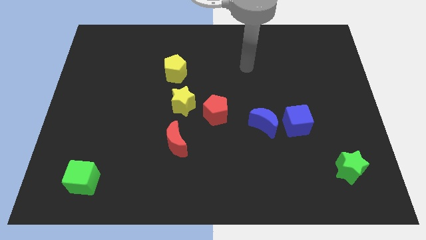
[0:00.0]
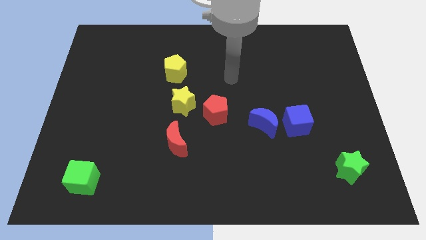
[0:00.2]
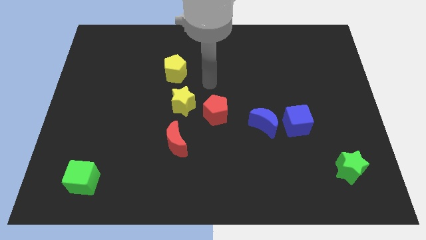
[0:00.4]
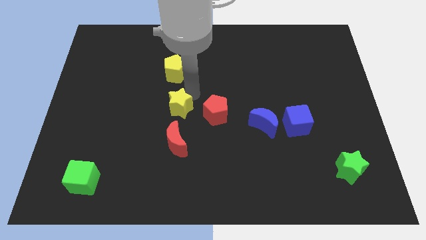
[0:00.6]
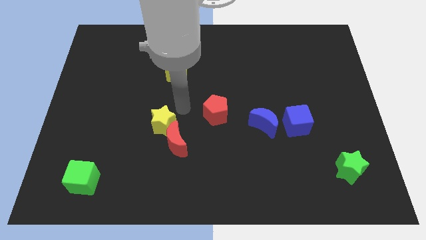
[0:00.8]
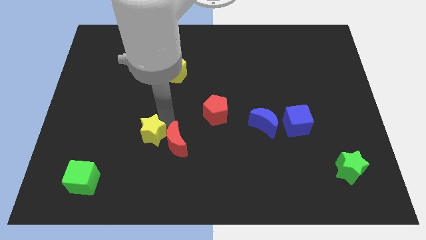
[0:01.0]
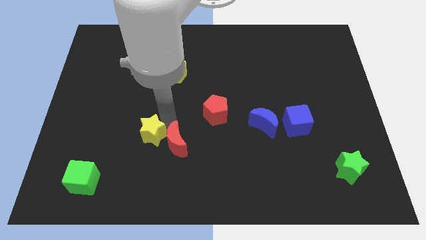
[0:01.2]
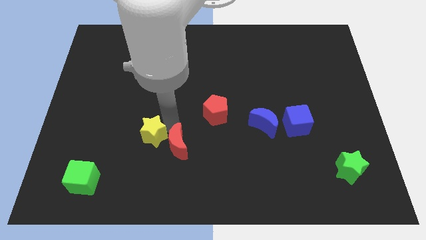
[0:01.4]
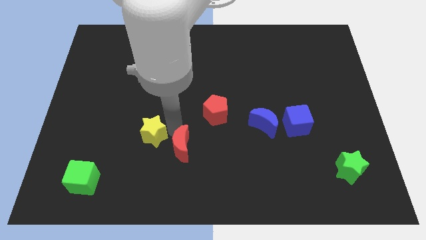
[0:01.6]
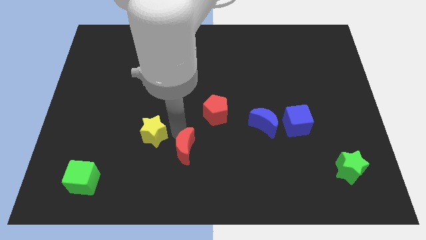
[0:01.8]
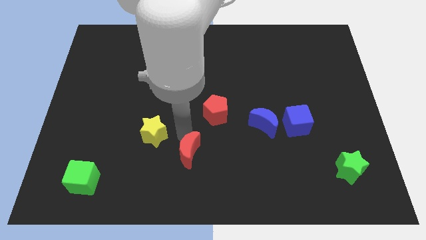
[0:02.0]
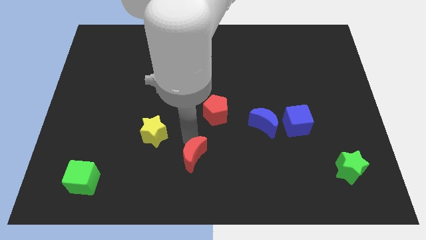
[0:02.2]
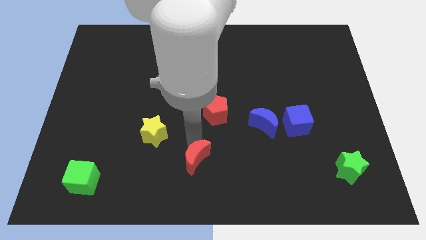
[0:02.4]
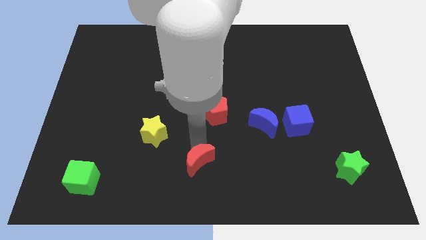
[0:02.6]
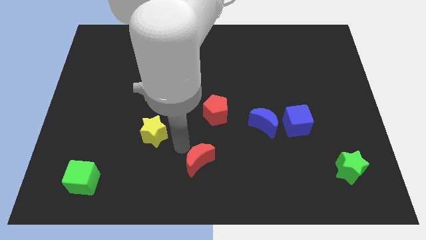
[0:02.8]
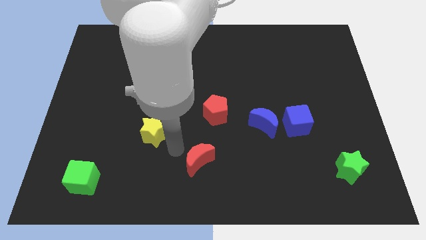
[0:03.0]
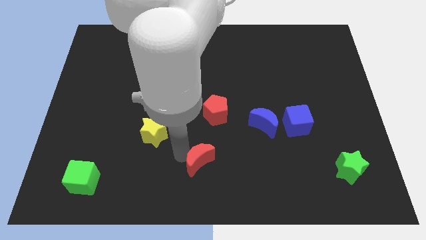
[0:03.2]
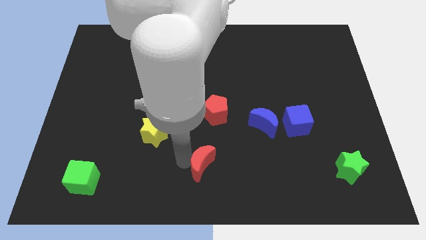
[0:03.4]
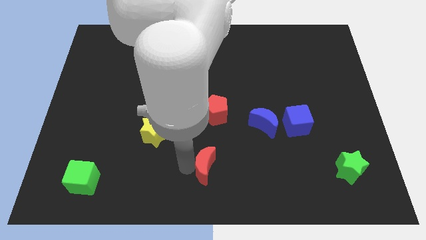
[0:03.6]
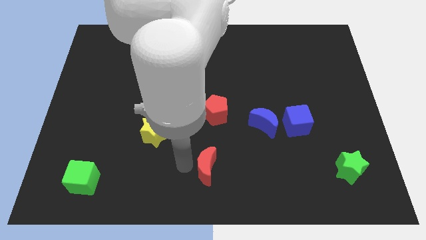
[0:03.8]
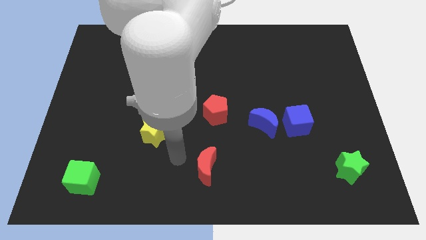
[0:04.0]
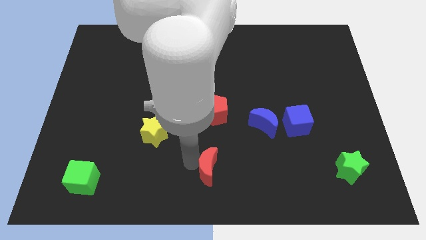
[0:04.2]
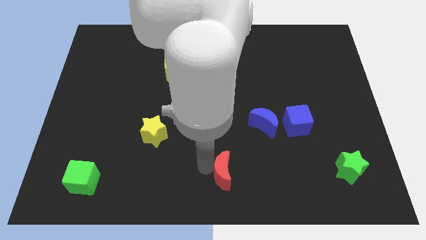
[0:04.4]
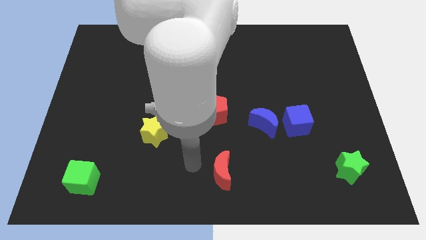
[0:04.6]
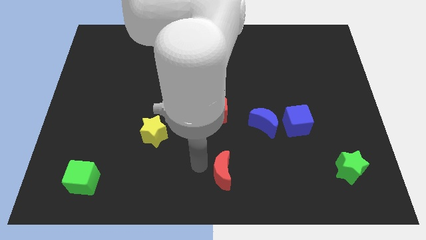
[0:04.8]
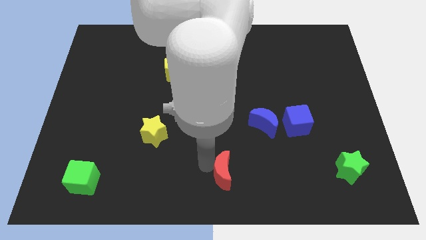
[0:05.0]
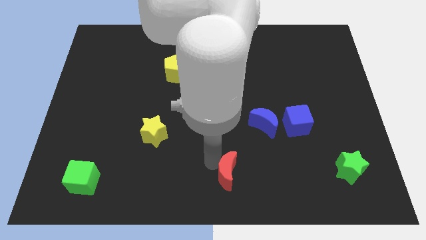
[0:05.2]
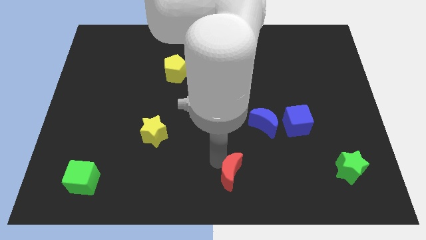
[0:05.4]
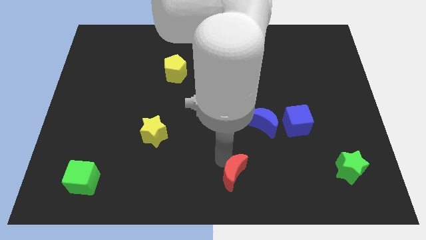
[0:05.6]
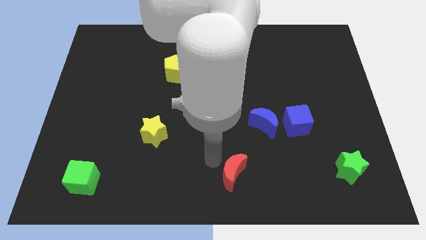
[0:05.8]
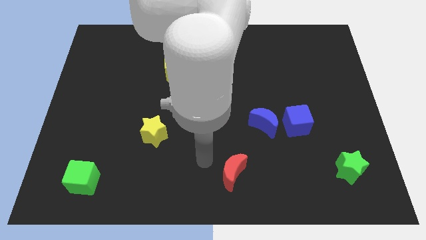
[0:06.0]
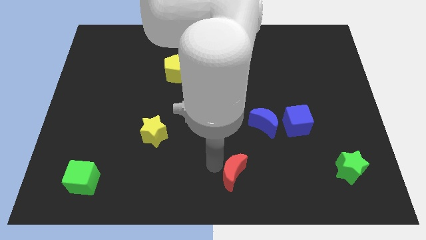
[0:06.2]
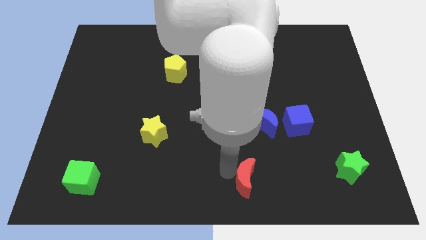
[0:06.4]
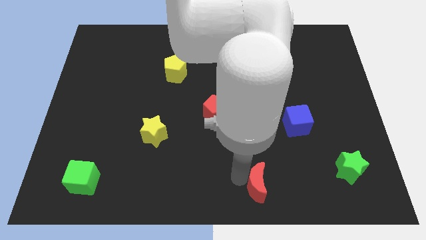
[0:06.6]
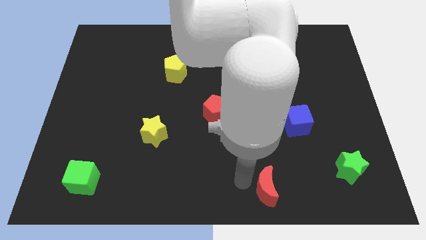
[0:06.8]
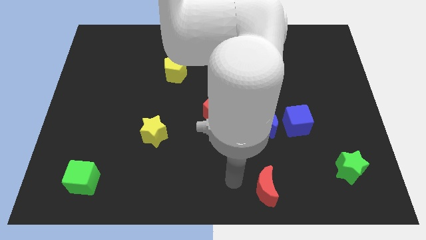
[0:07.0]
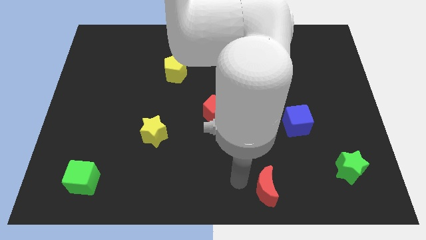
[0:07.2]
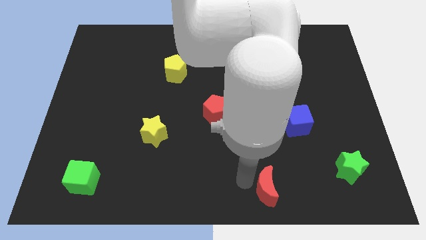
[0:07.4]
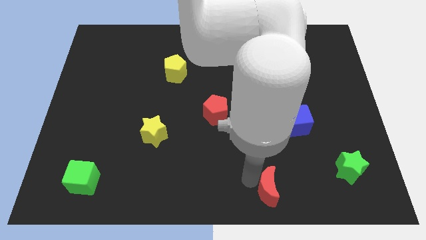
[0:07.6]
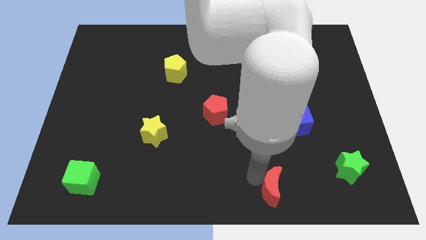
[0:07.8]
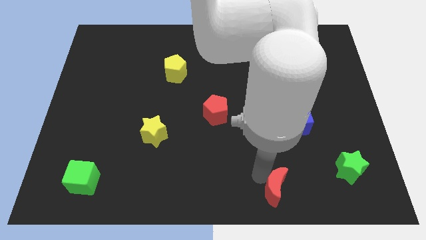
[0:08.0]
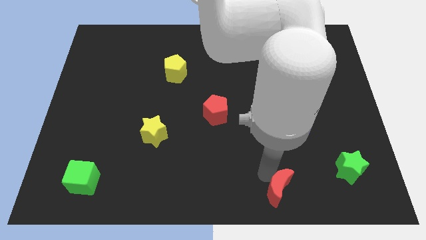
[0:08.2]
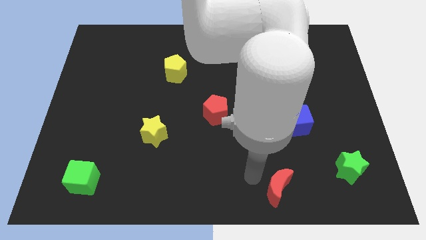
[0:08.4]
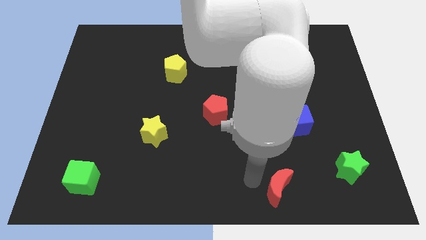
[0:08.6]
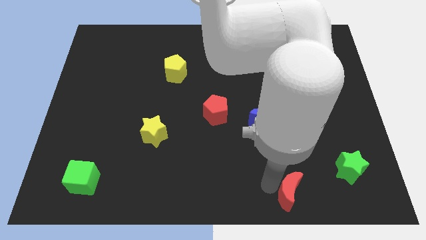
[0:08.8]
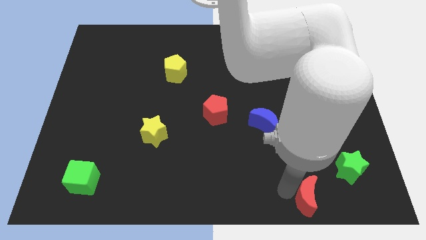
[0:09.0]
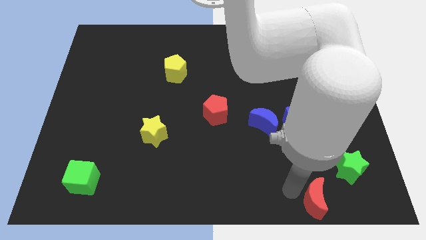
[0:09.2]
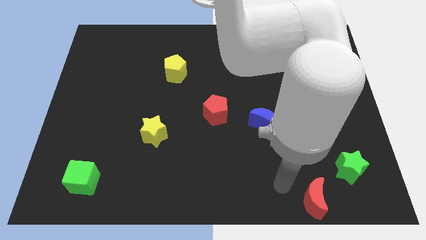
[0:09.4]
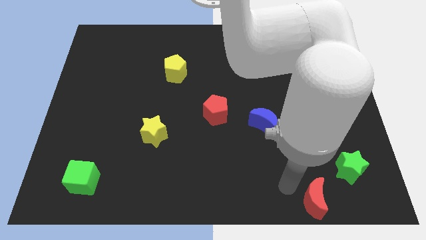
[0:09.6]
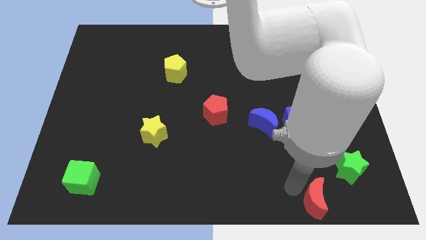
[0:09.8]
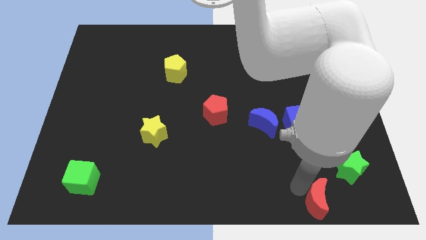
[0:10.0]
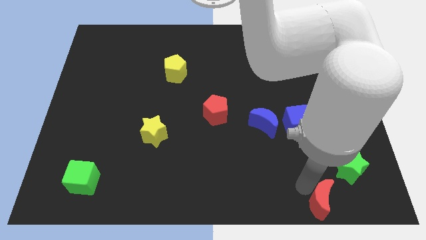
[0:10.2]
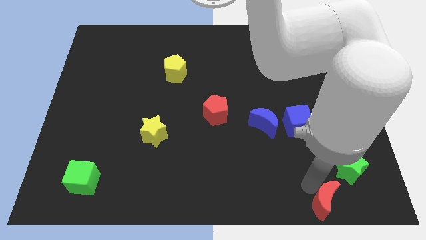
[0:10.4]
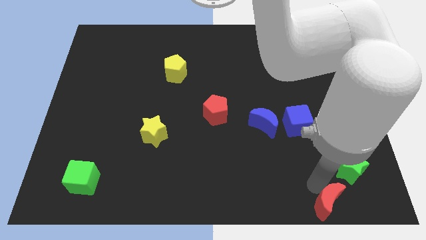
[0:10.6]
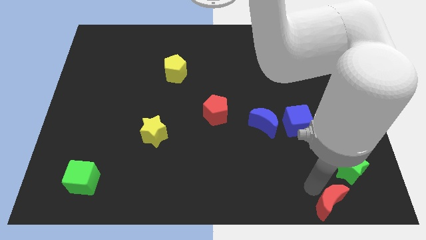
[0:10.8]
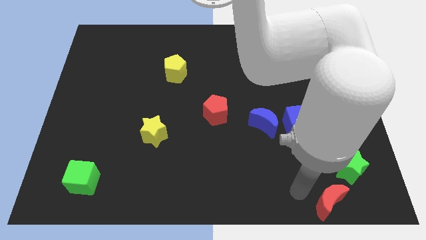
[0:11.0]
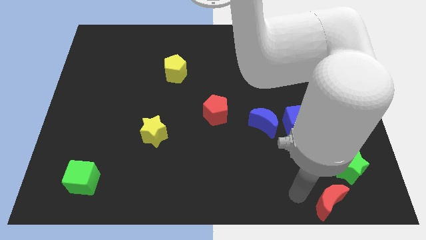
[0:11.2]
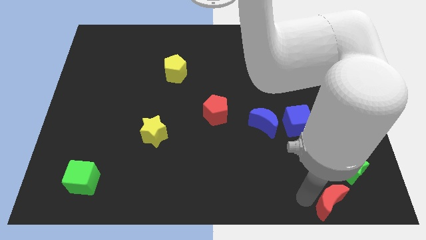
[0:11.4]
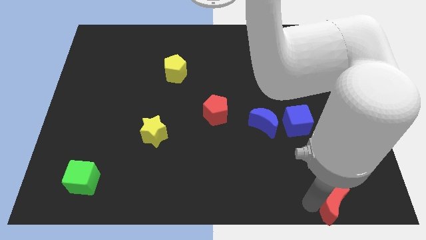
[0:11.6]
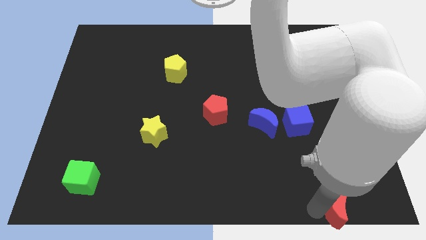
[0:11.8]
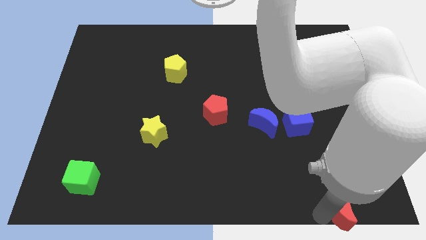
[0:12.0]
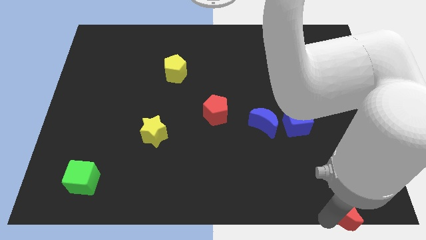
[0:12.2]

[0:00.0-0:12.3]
push the red moon to the bottom right corner
